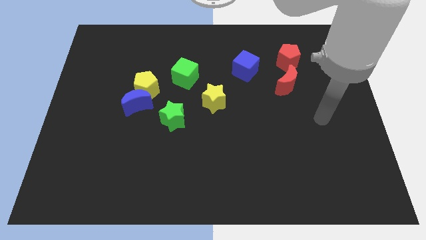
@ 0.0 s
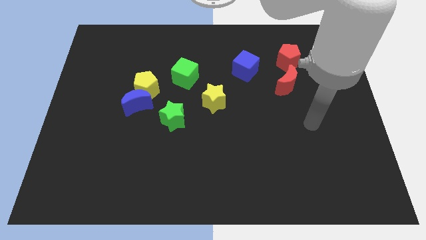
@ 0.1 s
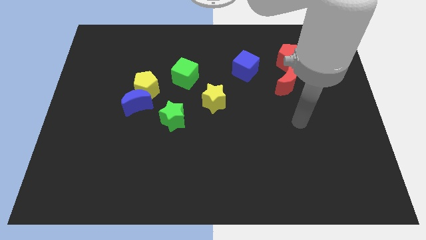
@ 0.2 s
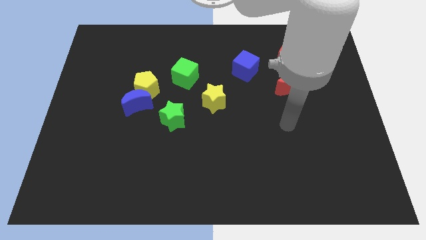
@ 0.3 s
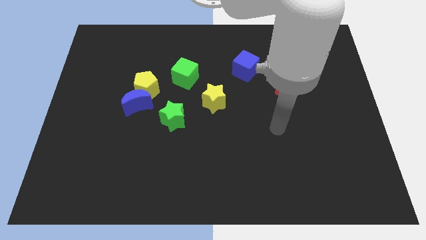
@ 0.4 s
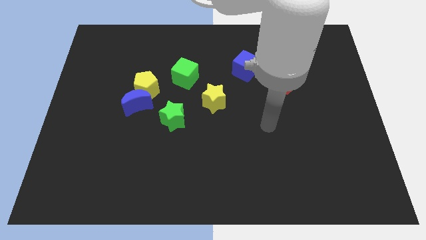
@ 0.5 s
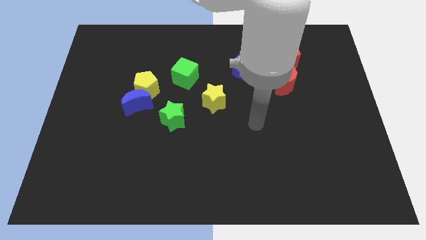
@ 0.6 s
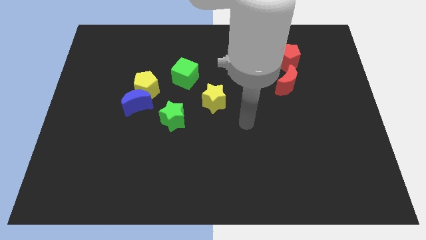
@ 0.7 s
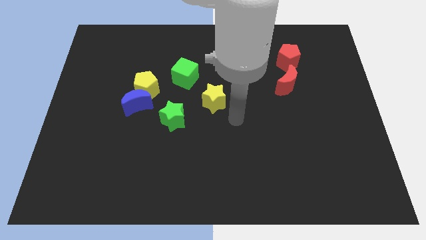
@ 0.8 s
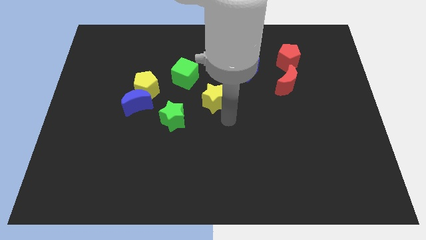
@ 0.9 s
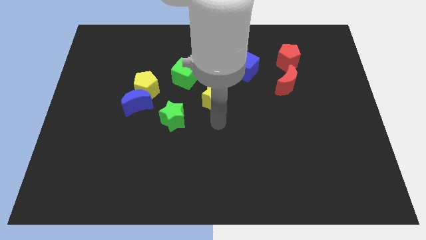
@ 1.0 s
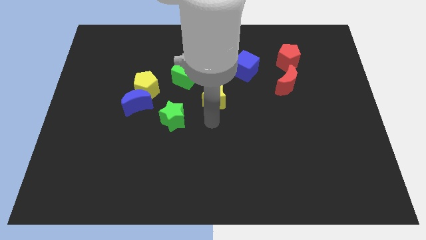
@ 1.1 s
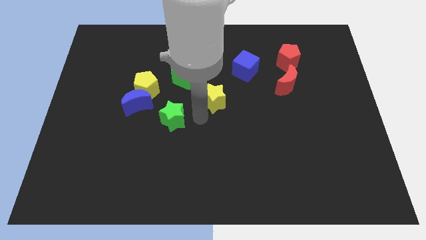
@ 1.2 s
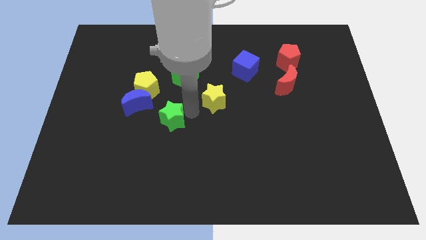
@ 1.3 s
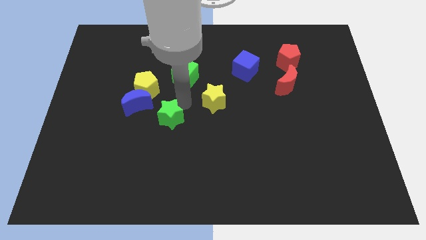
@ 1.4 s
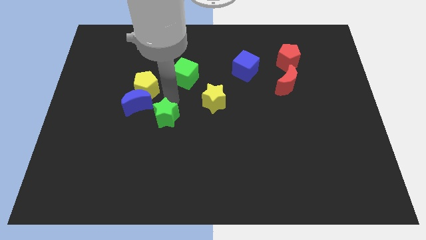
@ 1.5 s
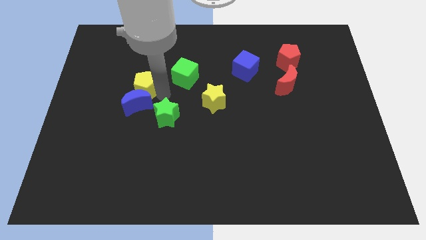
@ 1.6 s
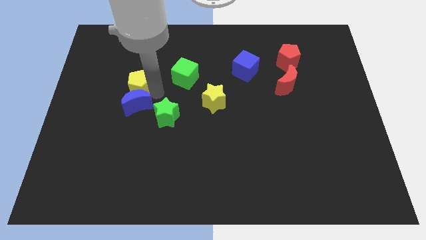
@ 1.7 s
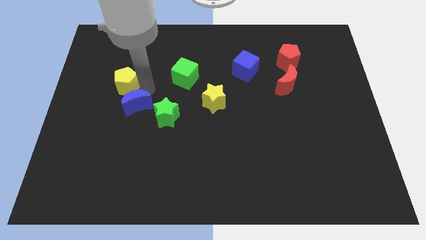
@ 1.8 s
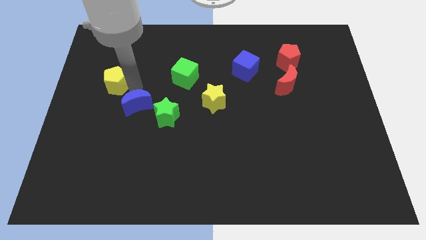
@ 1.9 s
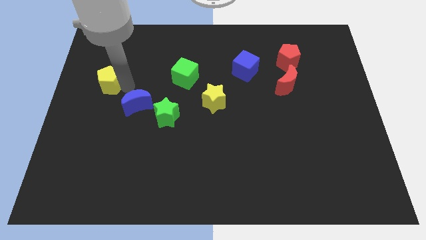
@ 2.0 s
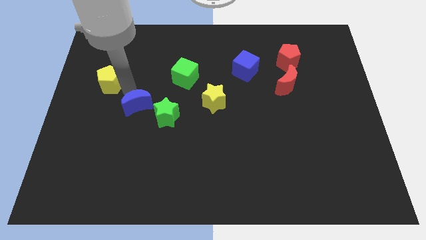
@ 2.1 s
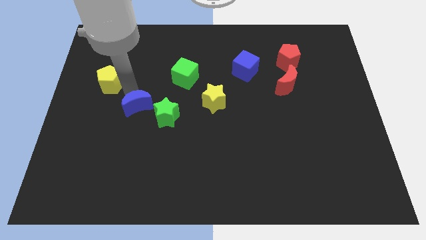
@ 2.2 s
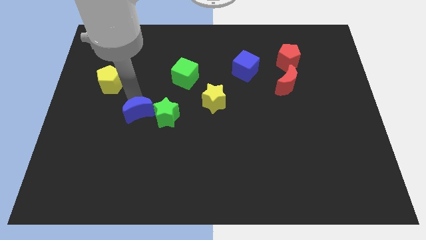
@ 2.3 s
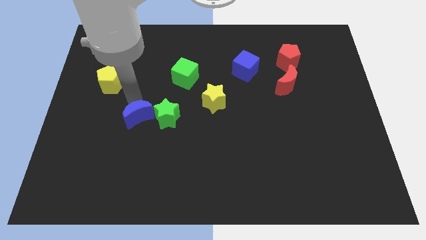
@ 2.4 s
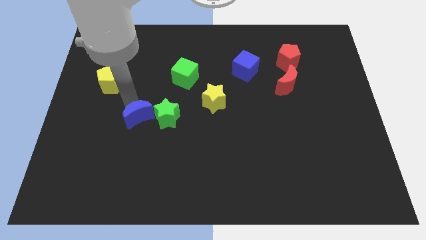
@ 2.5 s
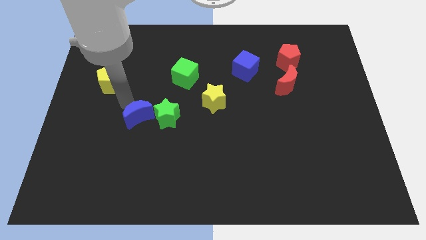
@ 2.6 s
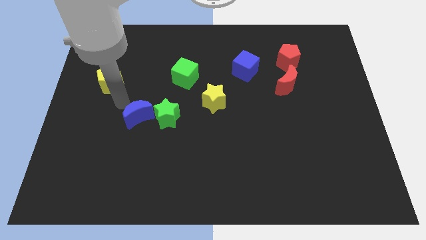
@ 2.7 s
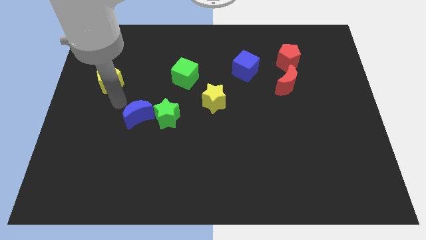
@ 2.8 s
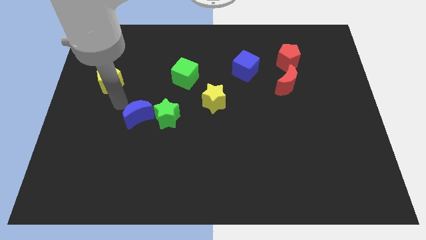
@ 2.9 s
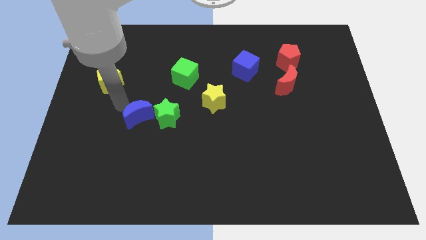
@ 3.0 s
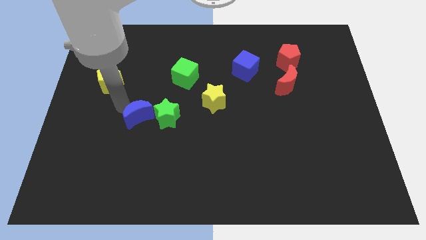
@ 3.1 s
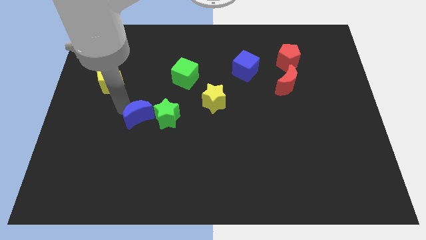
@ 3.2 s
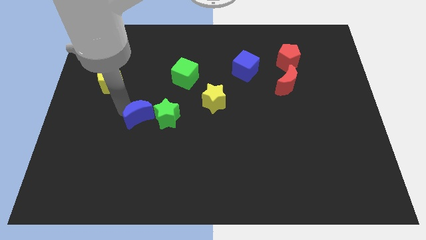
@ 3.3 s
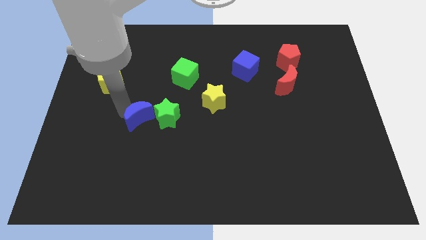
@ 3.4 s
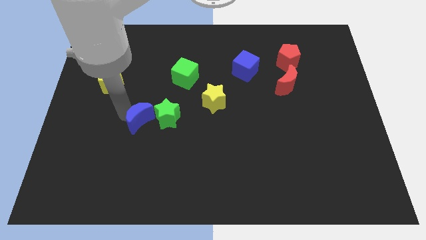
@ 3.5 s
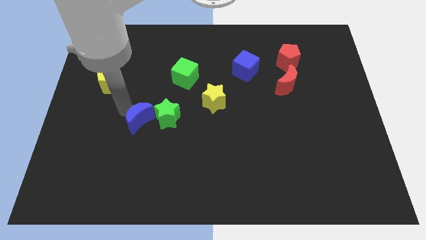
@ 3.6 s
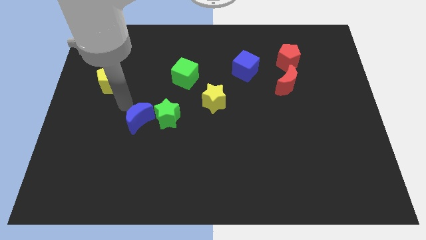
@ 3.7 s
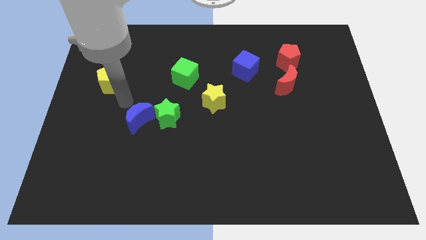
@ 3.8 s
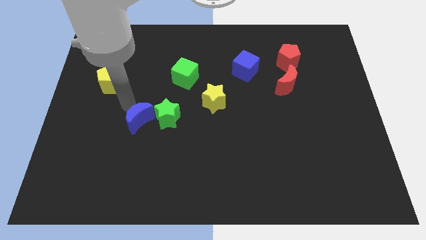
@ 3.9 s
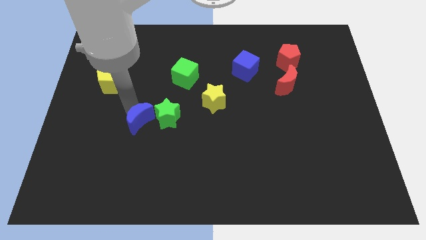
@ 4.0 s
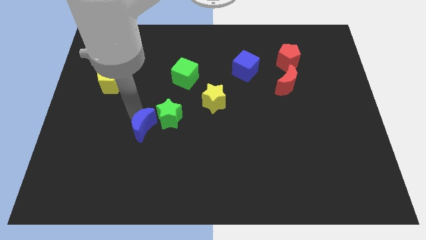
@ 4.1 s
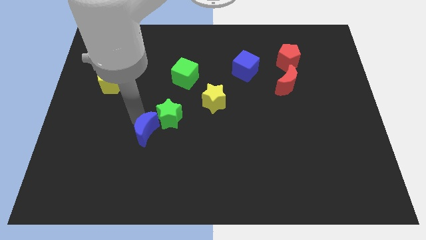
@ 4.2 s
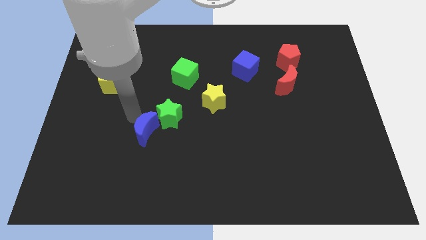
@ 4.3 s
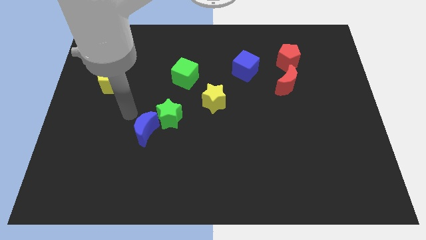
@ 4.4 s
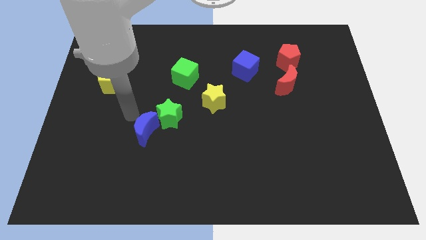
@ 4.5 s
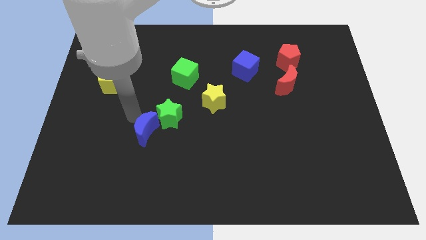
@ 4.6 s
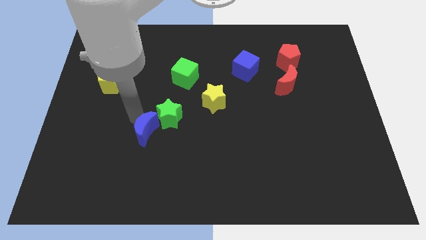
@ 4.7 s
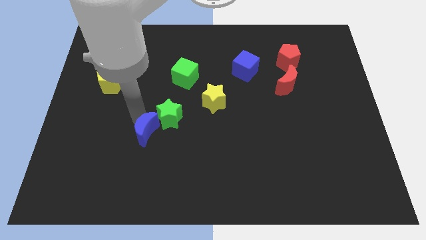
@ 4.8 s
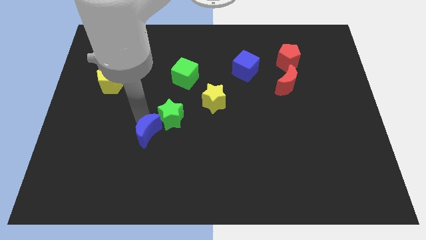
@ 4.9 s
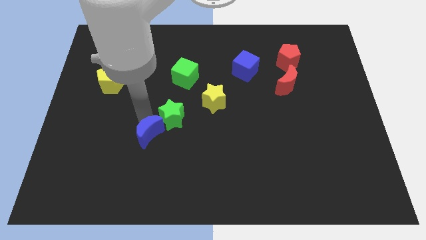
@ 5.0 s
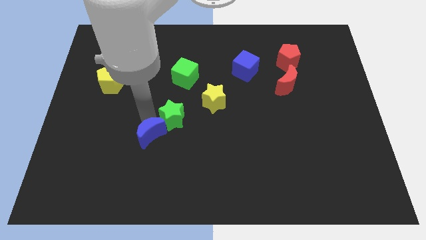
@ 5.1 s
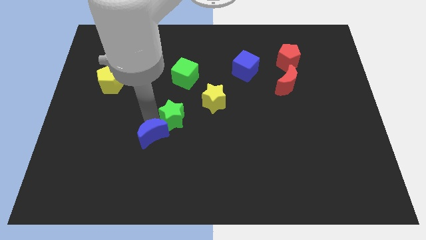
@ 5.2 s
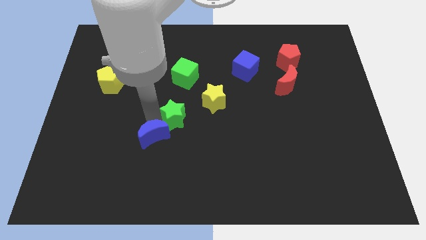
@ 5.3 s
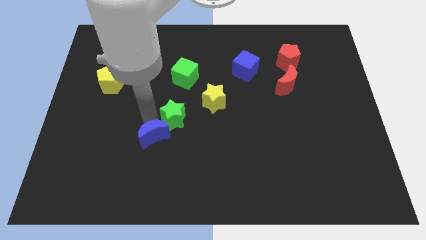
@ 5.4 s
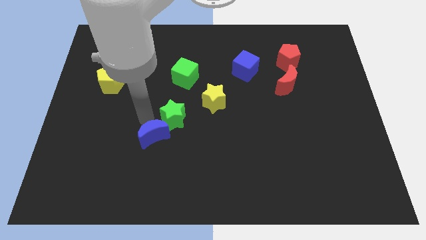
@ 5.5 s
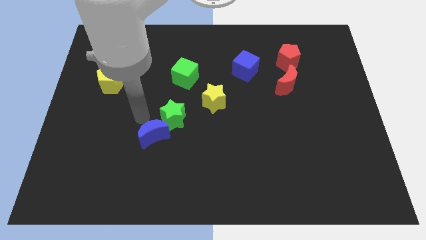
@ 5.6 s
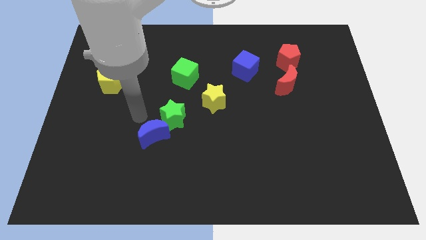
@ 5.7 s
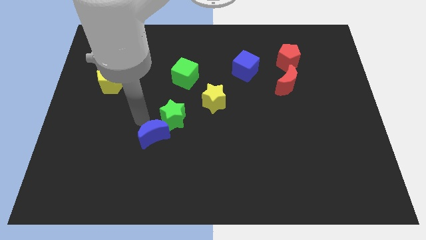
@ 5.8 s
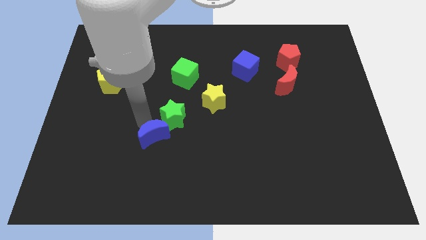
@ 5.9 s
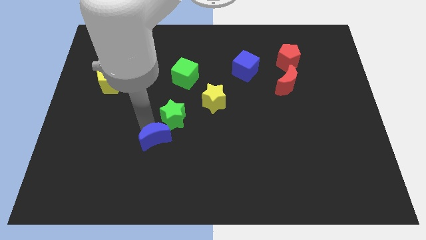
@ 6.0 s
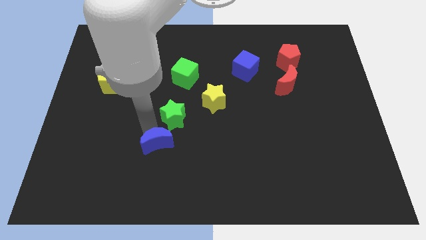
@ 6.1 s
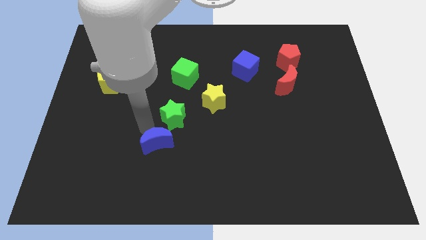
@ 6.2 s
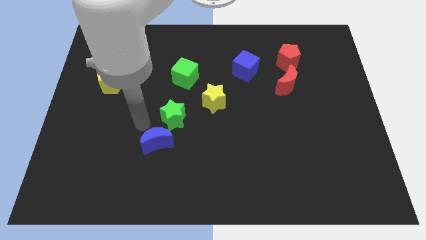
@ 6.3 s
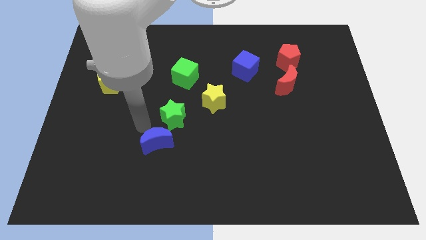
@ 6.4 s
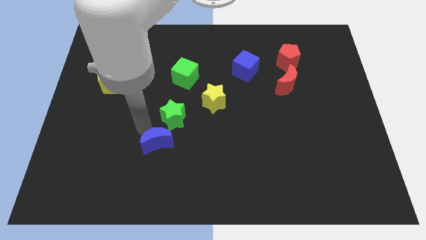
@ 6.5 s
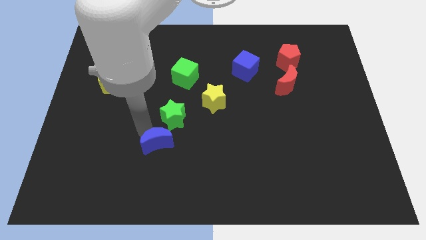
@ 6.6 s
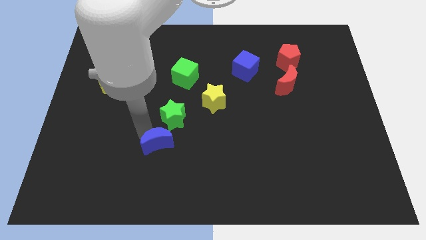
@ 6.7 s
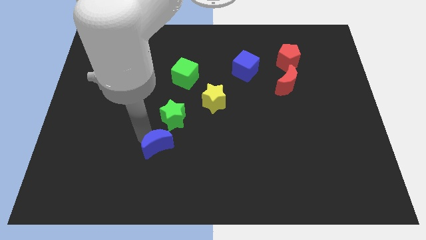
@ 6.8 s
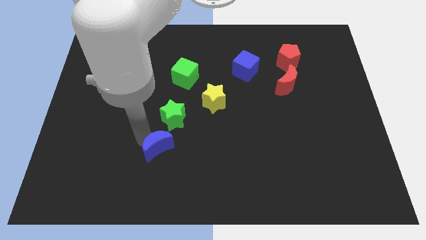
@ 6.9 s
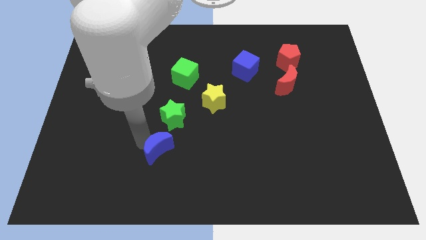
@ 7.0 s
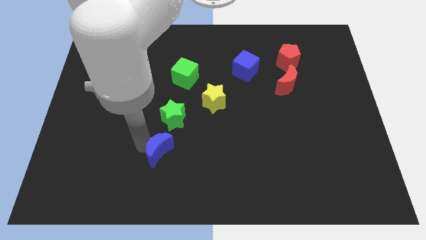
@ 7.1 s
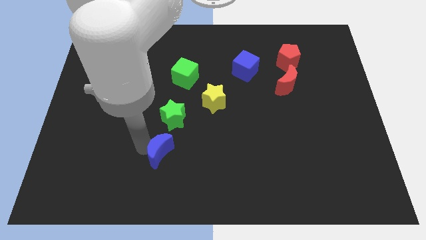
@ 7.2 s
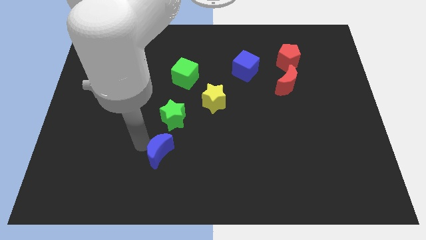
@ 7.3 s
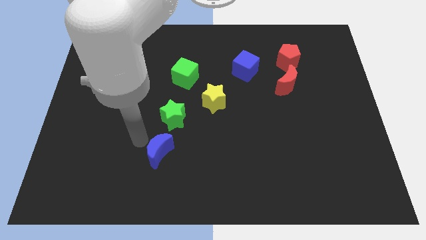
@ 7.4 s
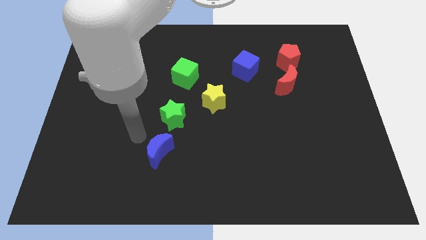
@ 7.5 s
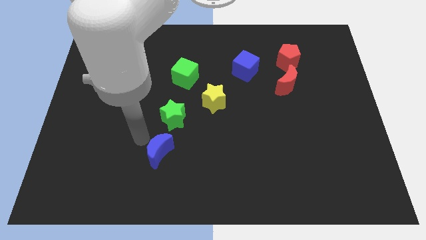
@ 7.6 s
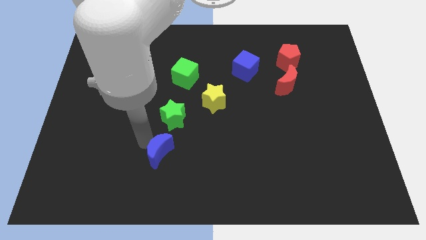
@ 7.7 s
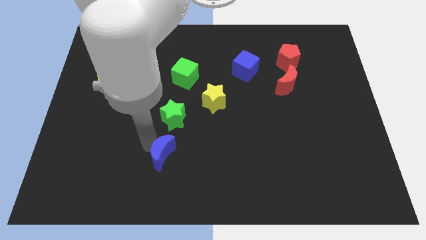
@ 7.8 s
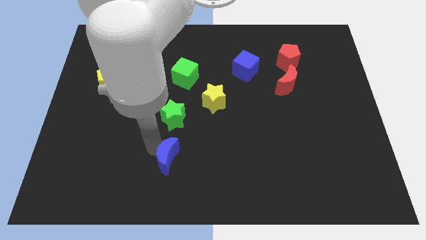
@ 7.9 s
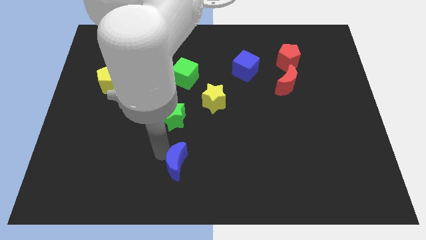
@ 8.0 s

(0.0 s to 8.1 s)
slide the blue moon to the bottom side
